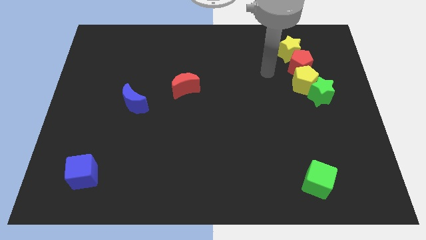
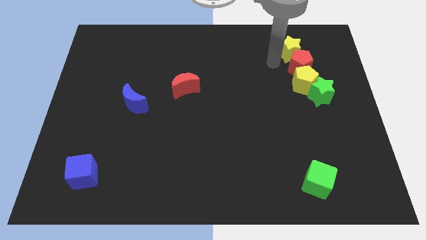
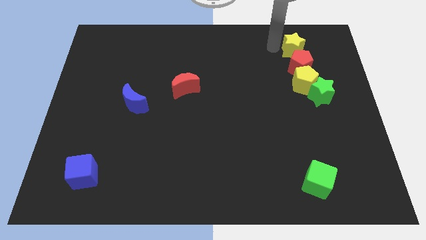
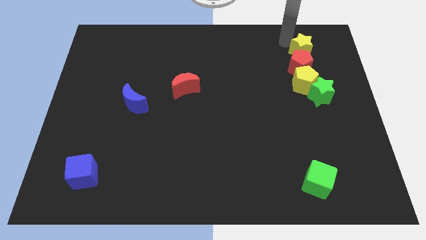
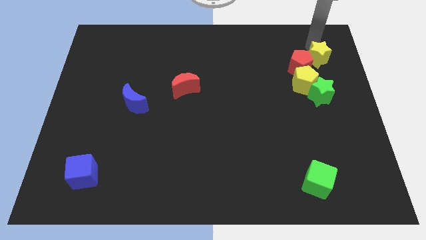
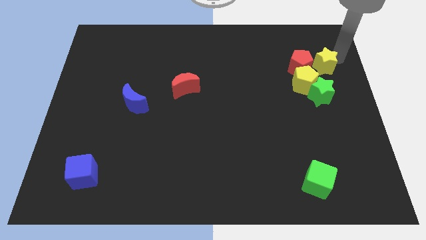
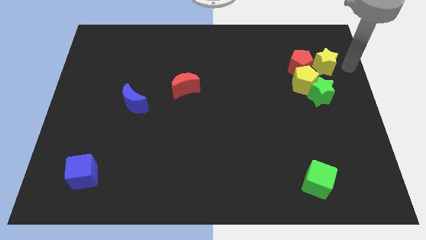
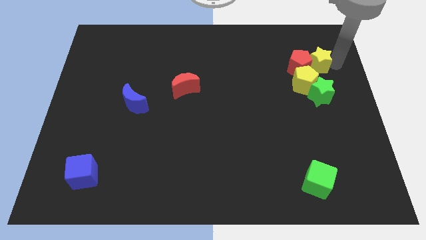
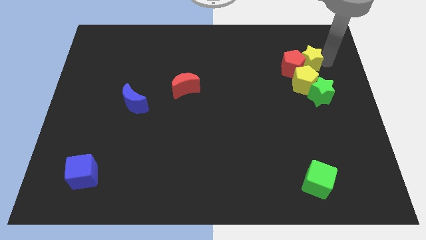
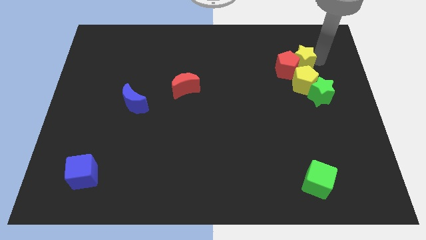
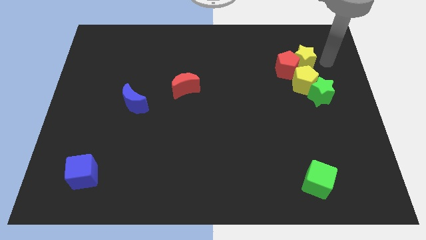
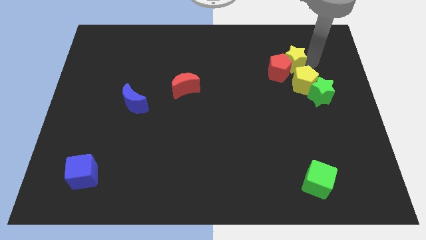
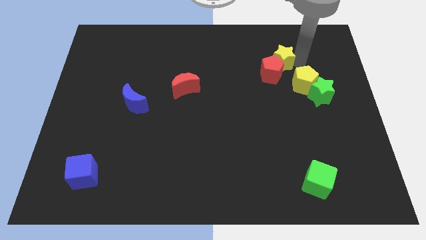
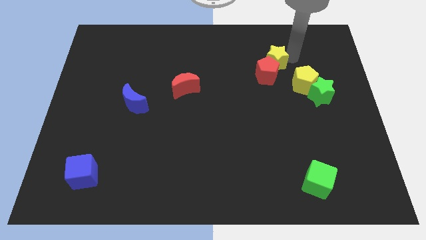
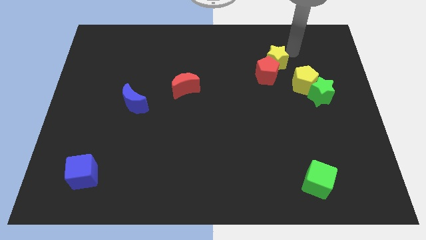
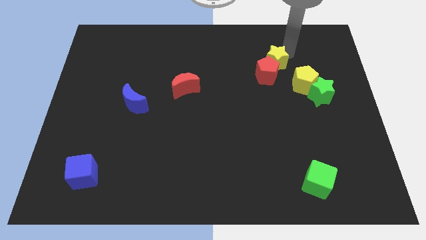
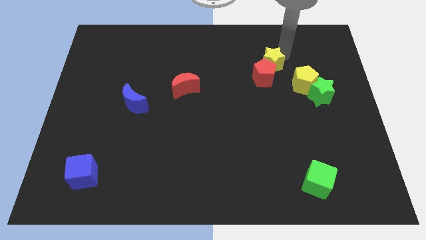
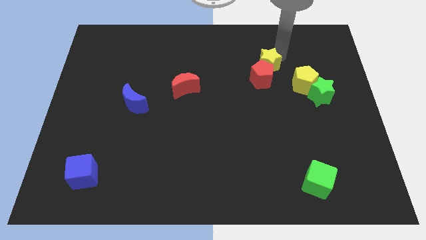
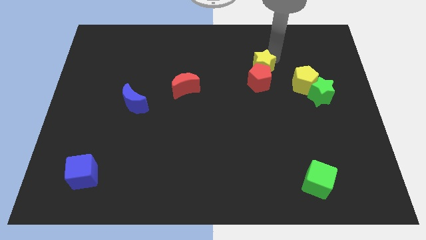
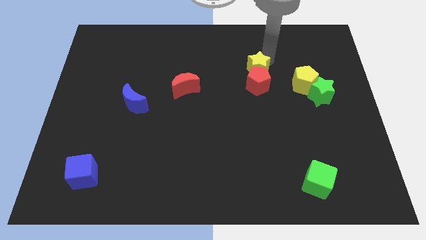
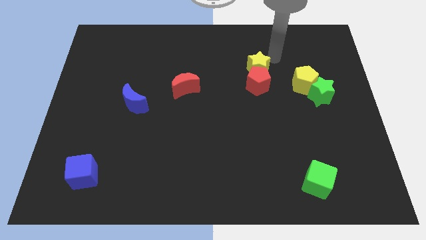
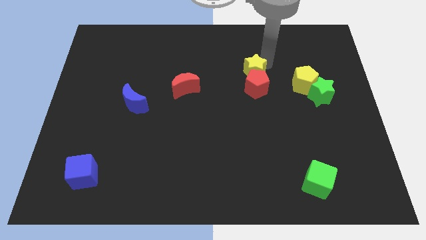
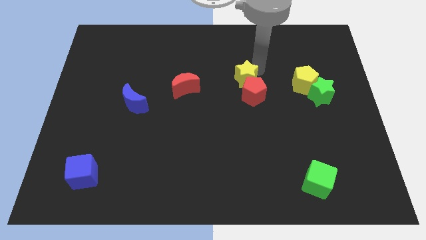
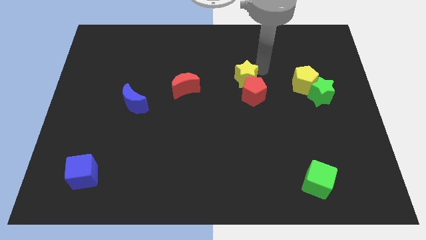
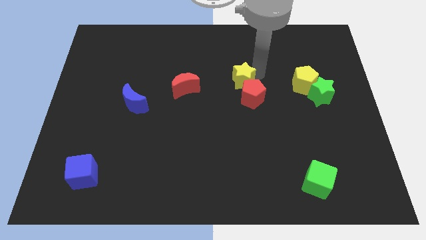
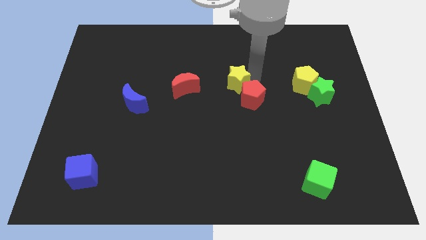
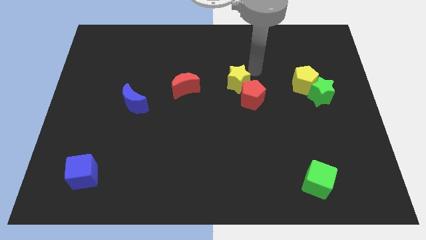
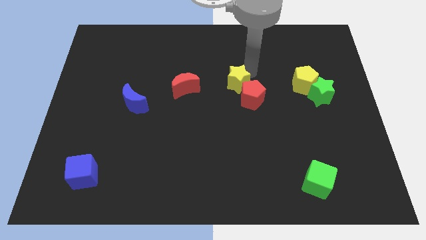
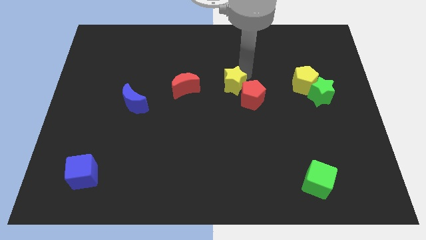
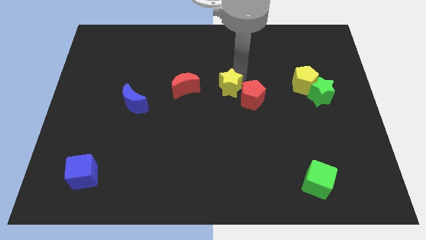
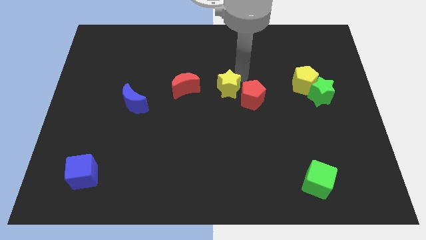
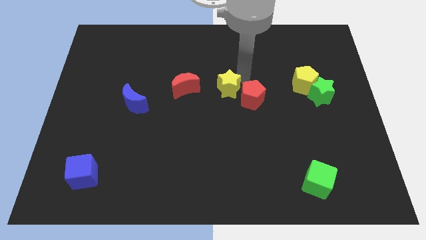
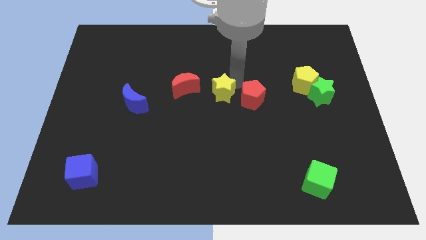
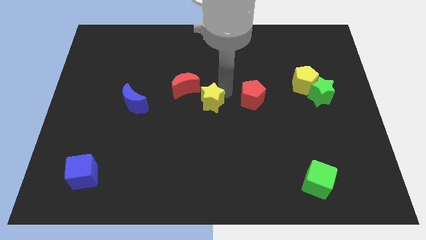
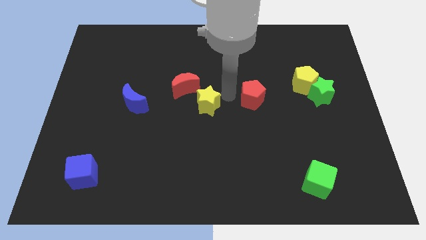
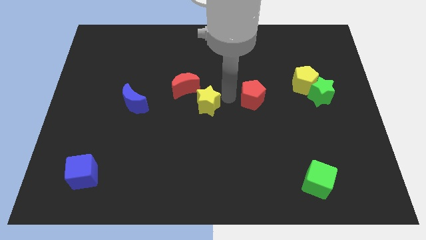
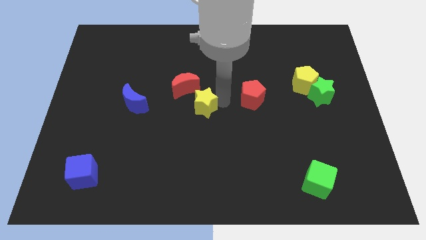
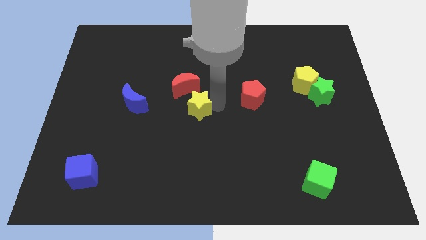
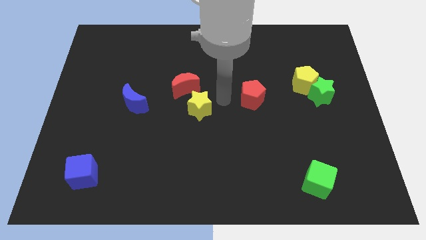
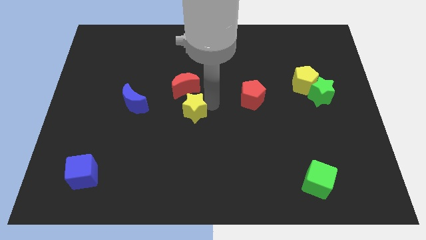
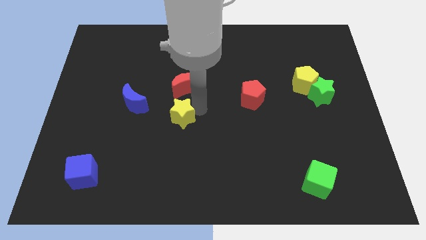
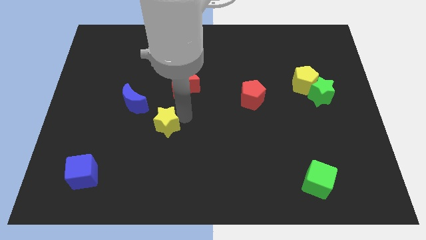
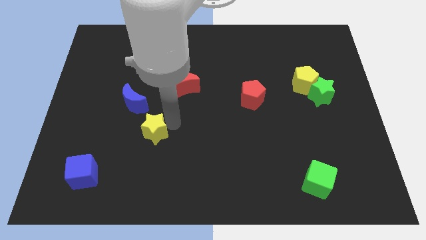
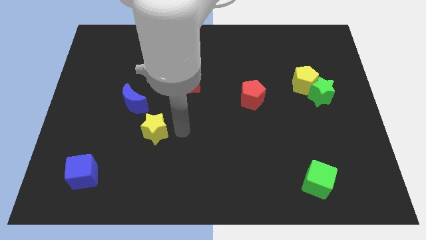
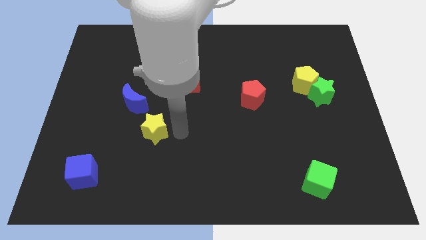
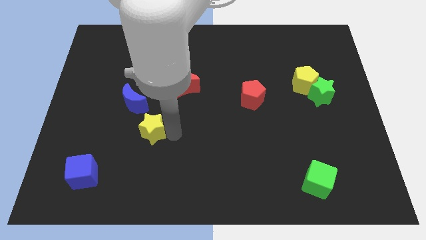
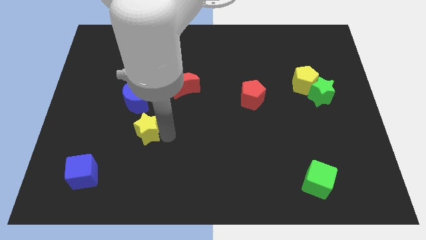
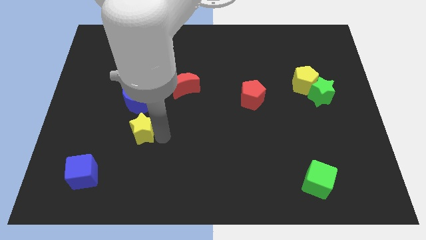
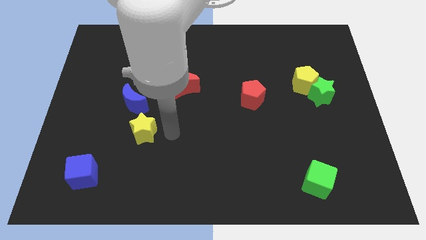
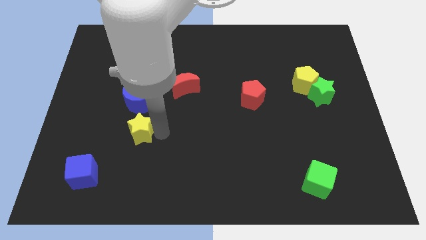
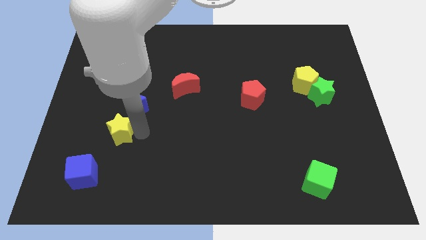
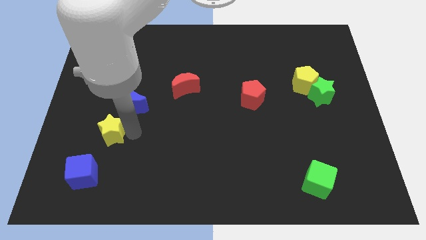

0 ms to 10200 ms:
slide the yellow star to the top side of the blue cube

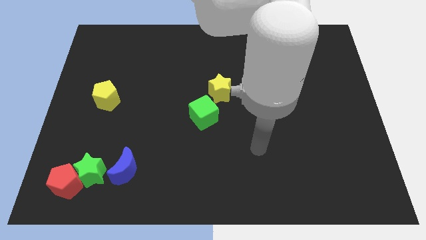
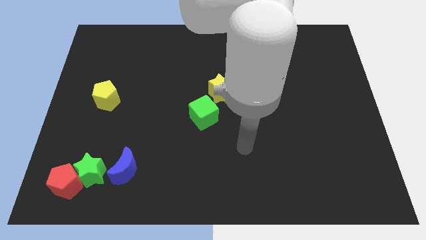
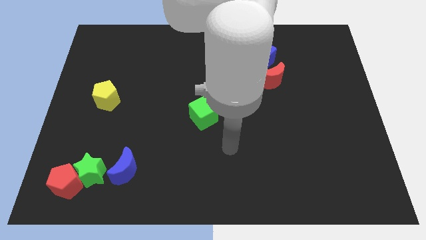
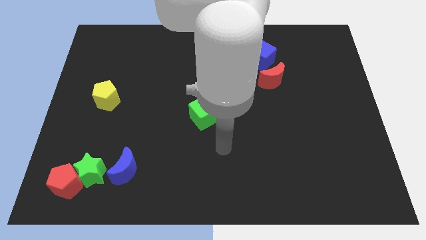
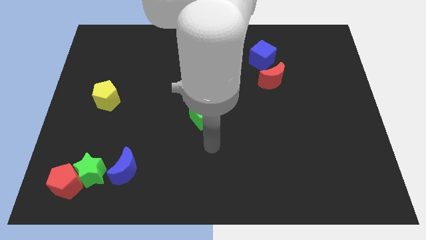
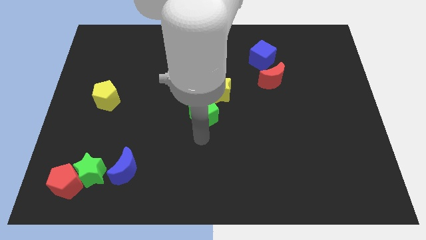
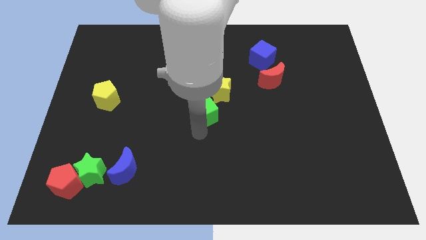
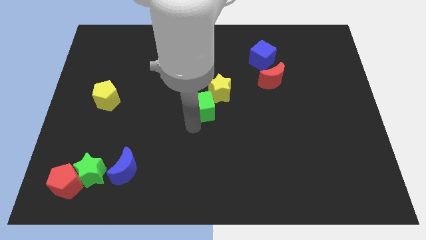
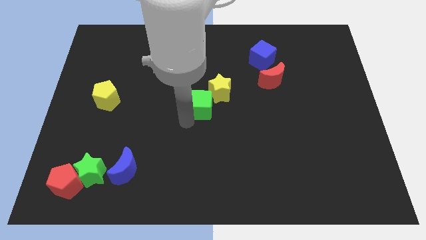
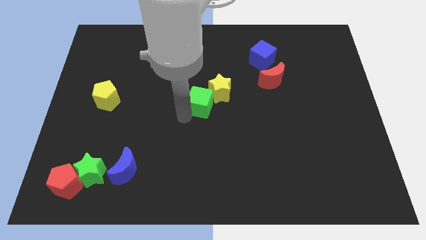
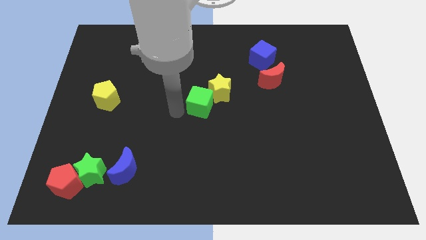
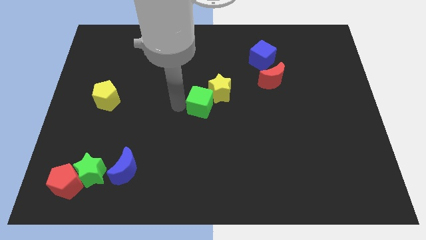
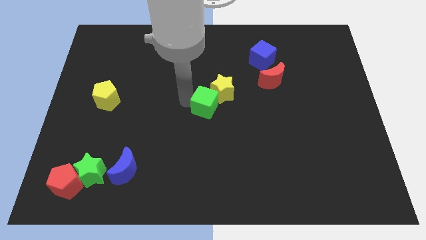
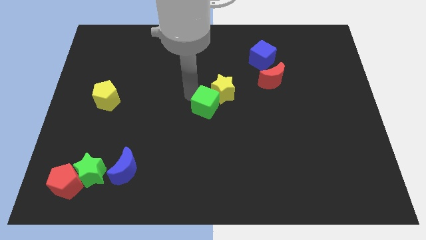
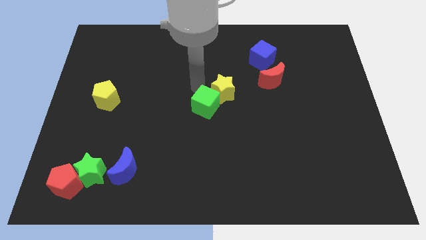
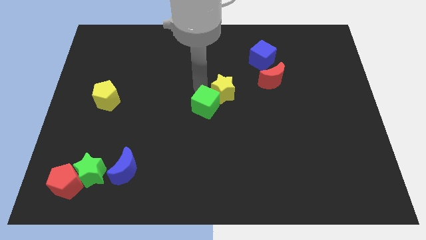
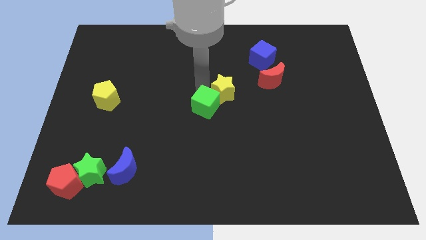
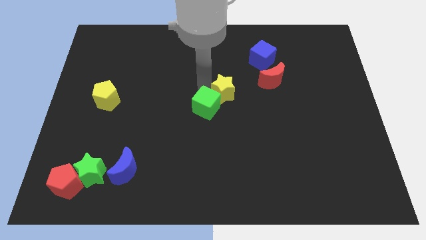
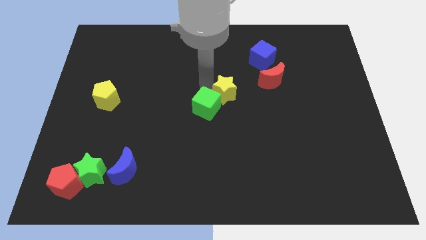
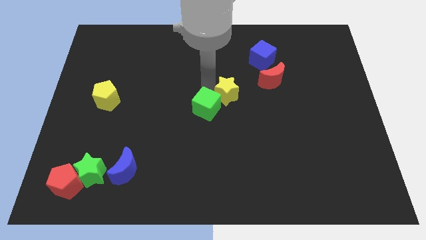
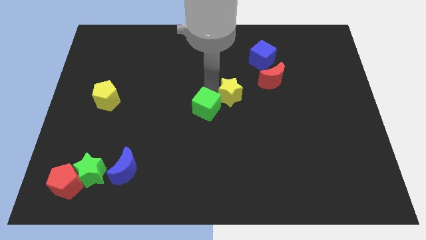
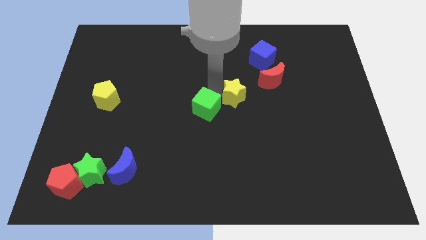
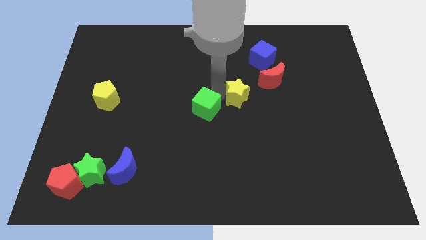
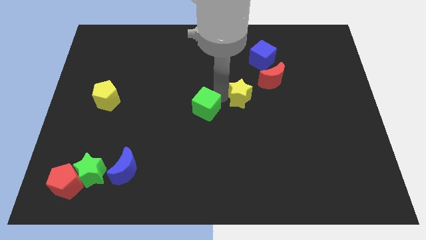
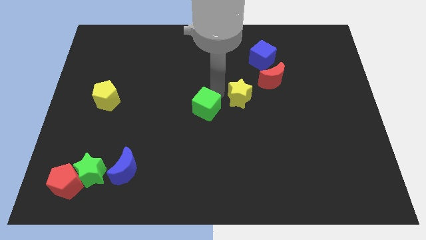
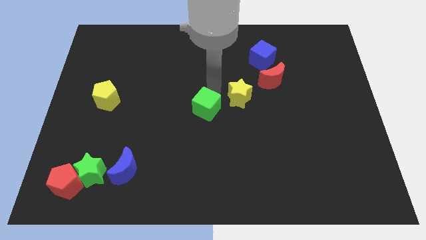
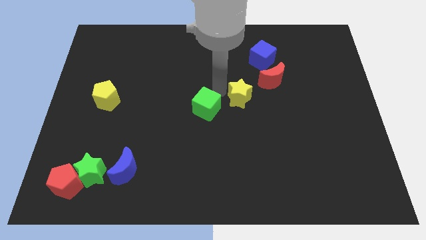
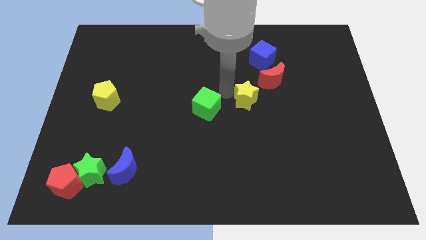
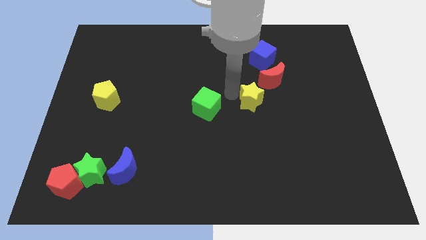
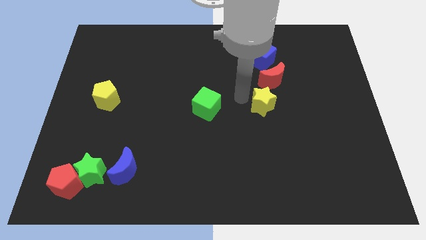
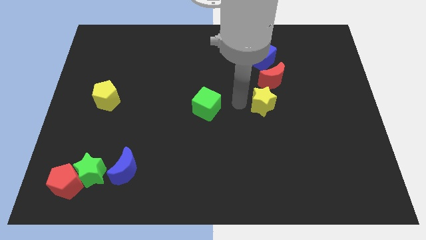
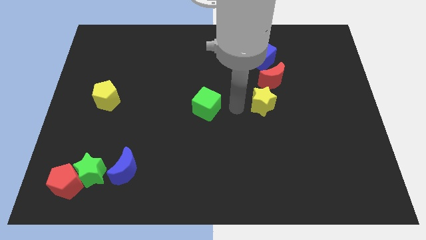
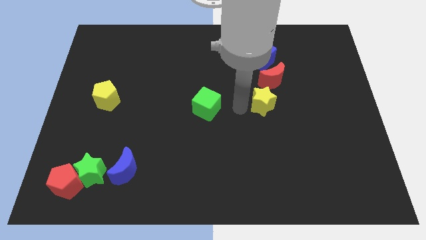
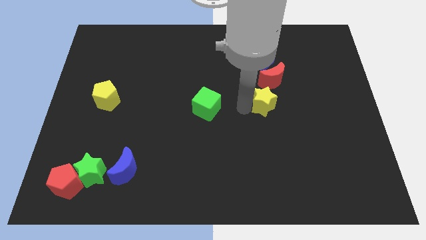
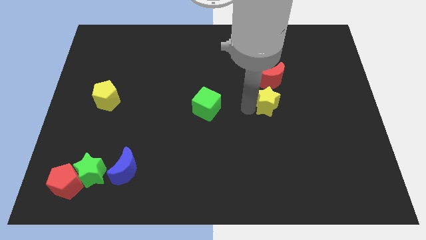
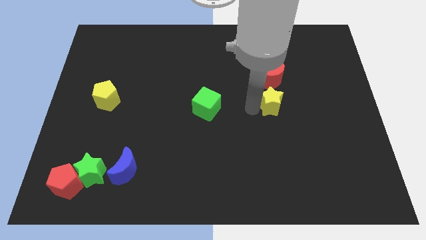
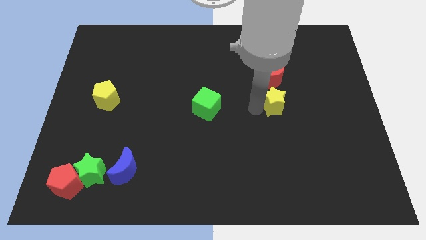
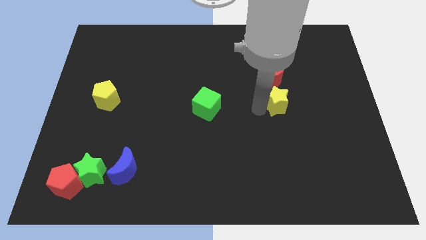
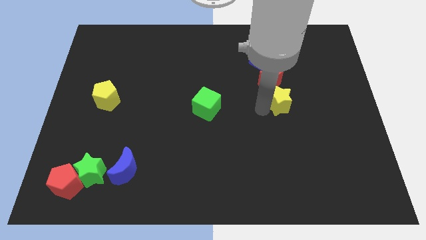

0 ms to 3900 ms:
move the yellow star diagonally down and to the right of the red moon
